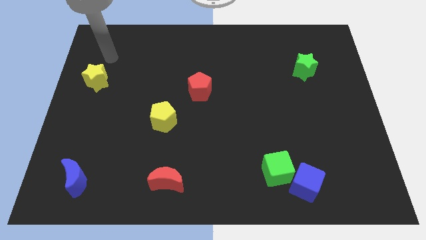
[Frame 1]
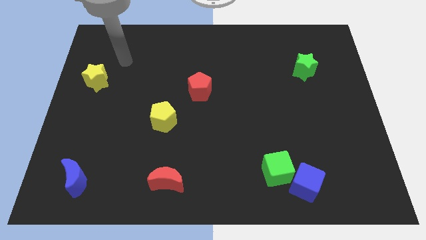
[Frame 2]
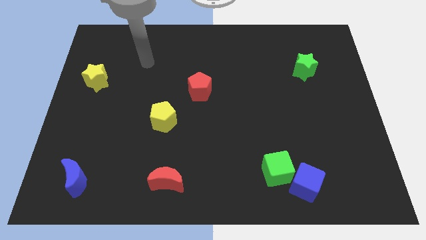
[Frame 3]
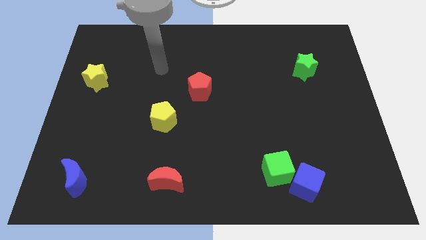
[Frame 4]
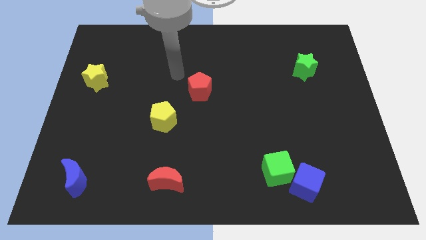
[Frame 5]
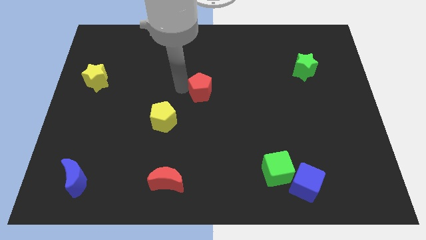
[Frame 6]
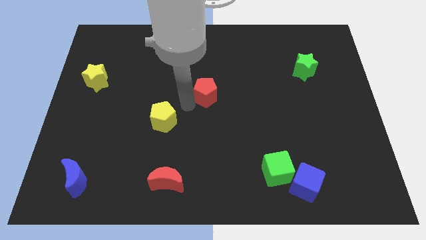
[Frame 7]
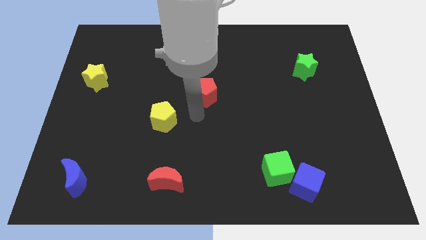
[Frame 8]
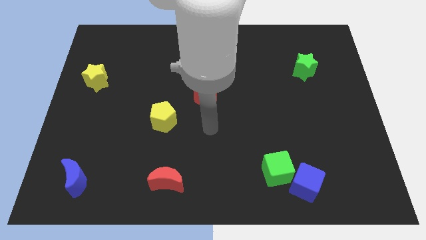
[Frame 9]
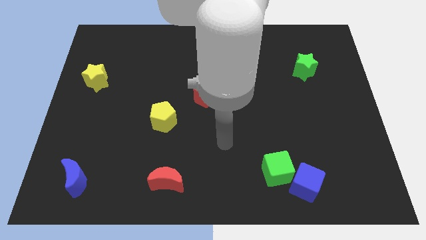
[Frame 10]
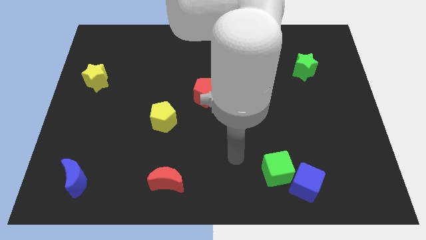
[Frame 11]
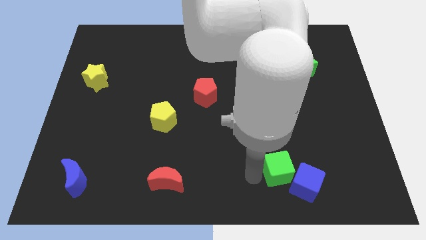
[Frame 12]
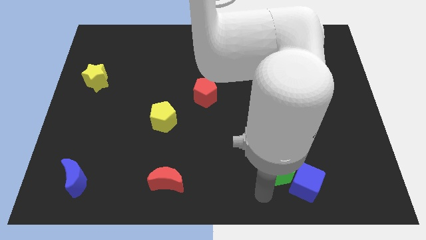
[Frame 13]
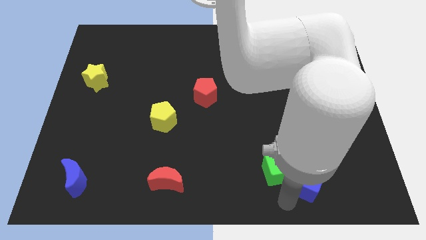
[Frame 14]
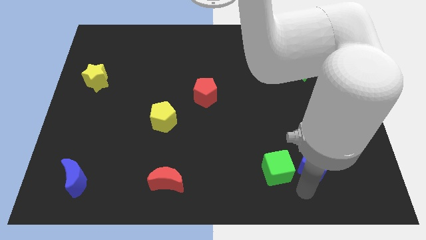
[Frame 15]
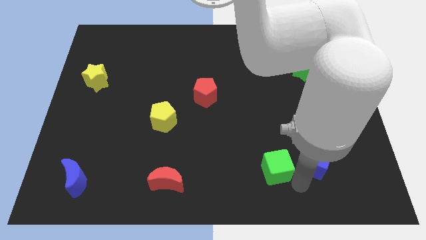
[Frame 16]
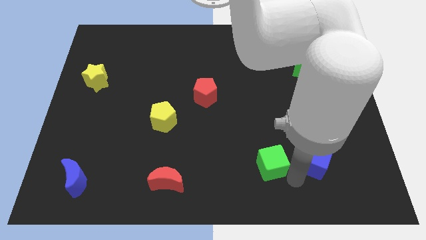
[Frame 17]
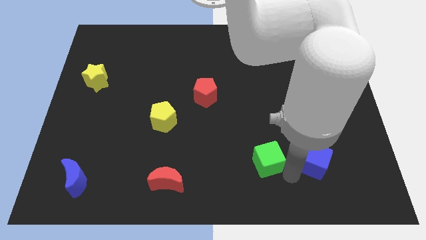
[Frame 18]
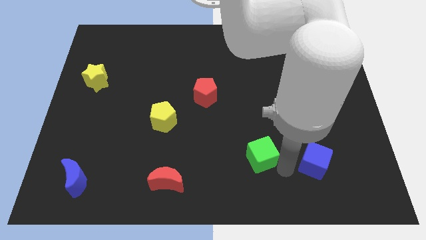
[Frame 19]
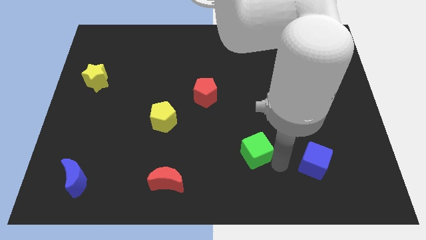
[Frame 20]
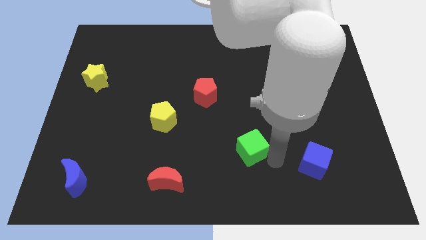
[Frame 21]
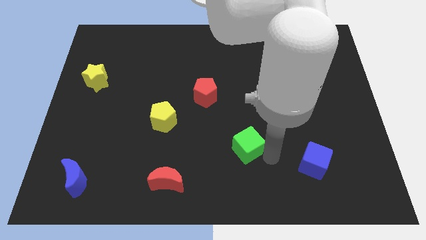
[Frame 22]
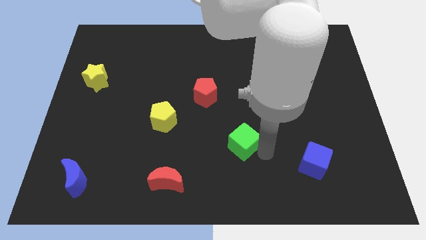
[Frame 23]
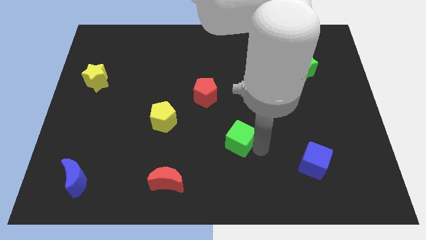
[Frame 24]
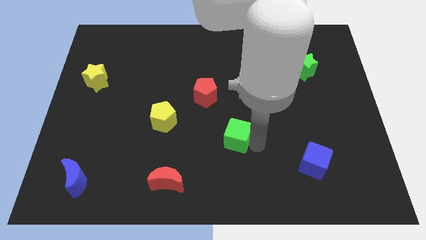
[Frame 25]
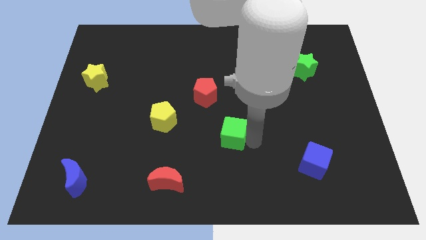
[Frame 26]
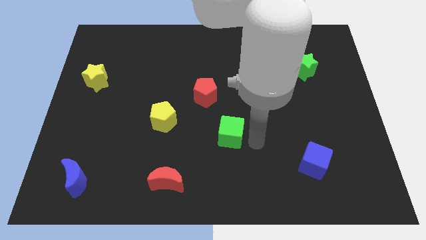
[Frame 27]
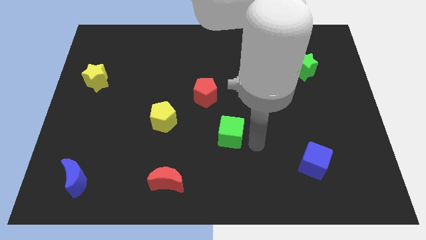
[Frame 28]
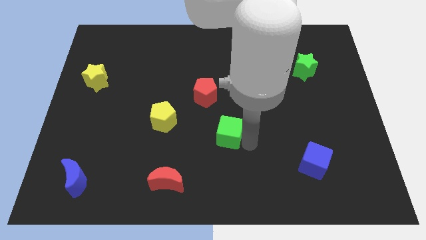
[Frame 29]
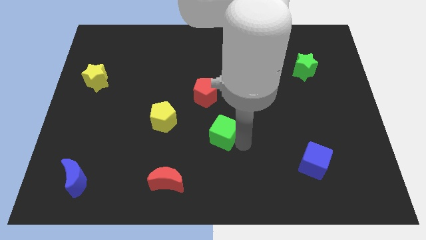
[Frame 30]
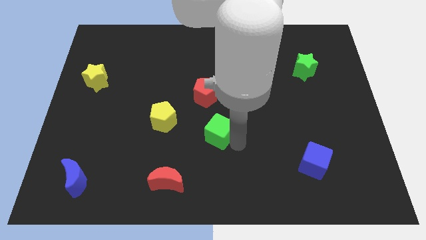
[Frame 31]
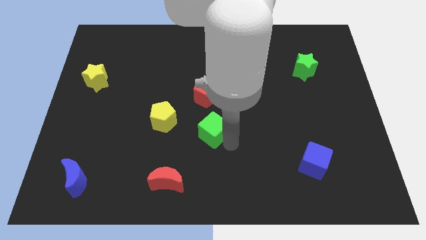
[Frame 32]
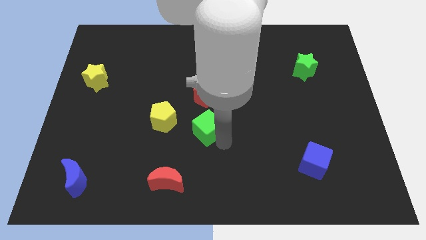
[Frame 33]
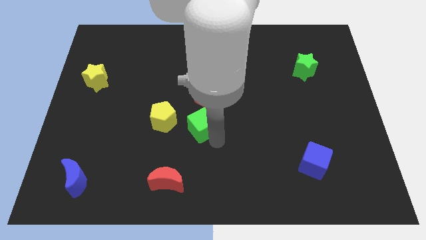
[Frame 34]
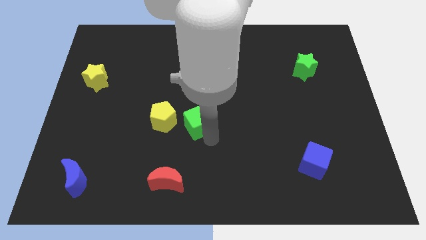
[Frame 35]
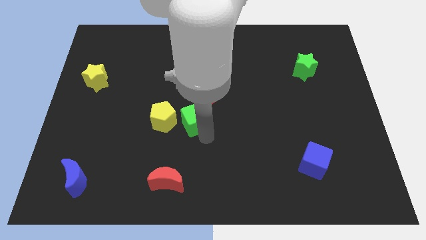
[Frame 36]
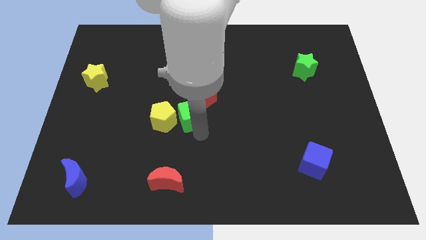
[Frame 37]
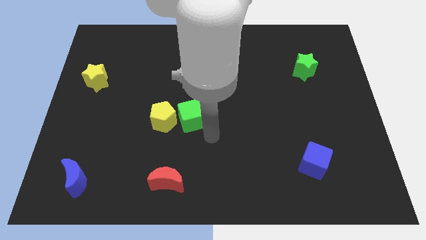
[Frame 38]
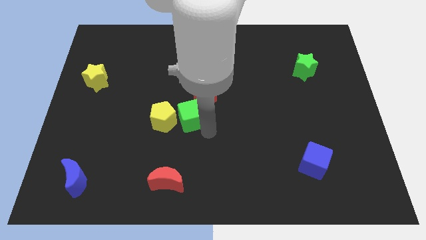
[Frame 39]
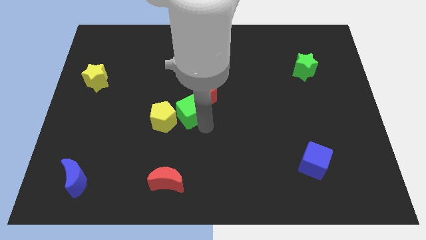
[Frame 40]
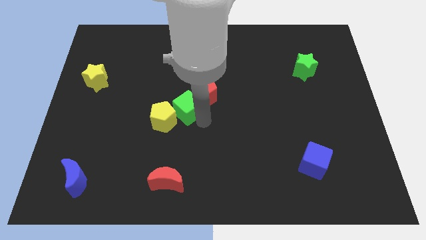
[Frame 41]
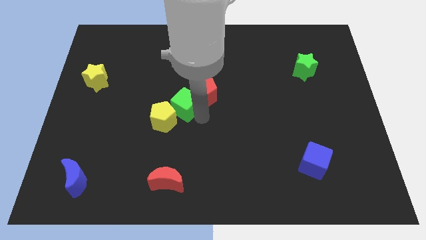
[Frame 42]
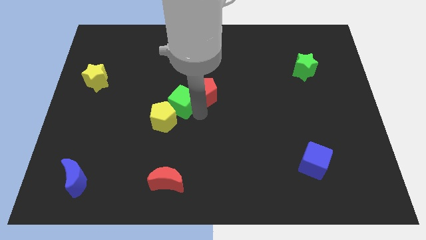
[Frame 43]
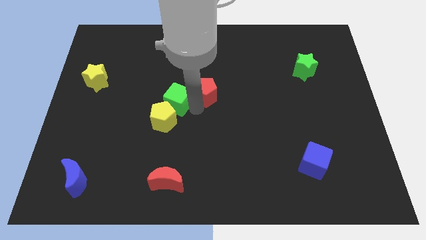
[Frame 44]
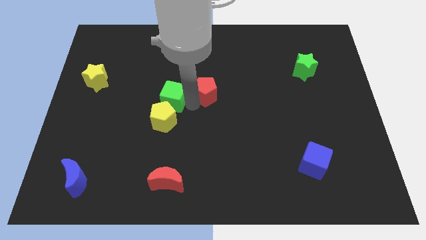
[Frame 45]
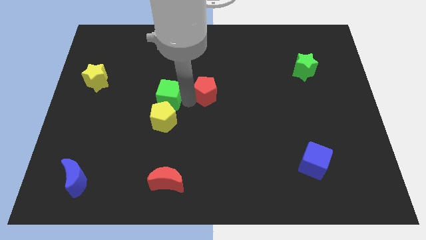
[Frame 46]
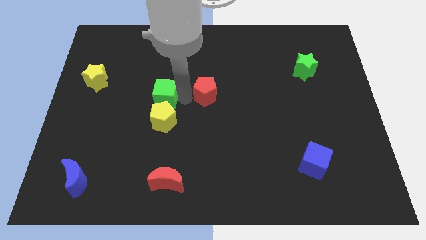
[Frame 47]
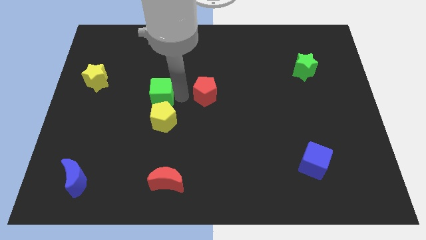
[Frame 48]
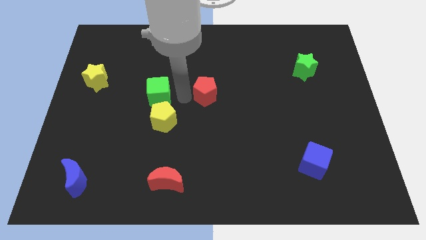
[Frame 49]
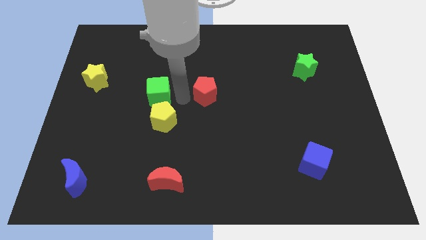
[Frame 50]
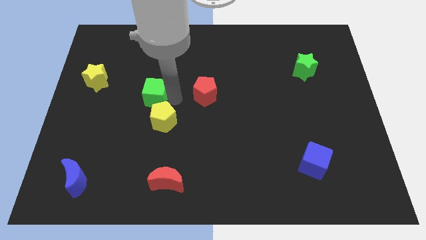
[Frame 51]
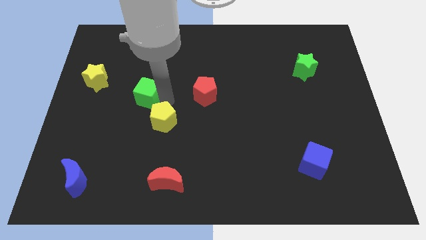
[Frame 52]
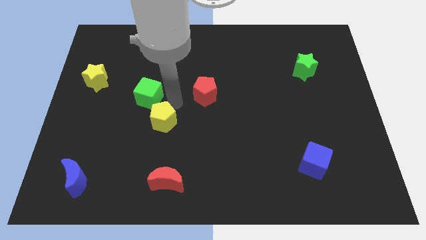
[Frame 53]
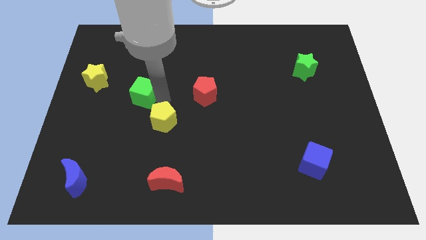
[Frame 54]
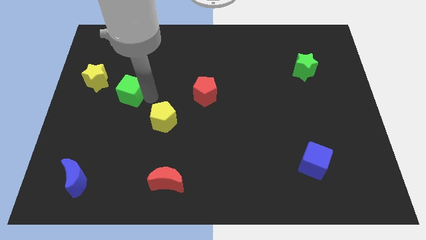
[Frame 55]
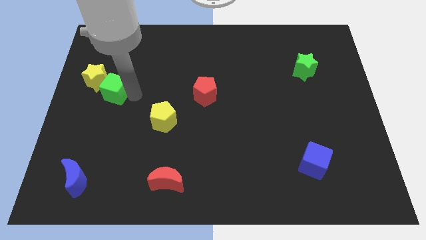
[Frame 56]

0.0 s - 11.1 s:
slide the green cube towards the yellow star
